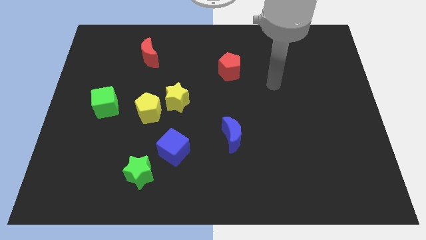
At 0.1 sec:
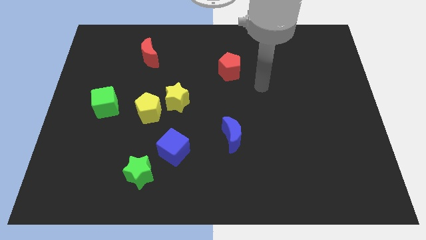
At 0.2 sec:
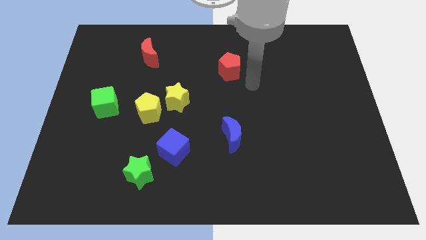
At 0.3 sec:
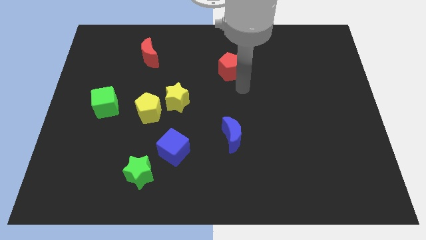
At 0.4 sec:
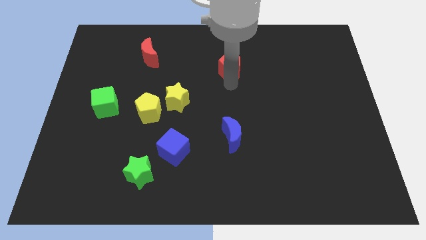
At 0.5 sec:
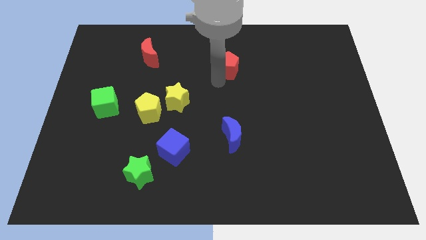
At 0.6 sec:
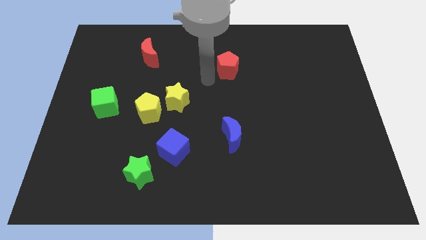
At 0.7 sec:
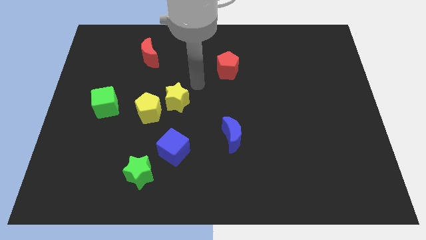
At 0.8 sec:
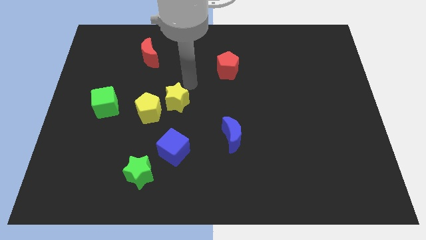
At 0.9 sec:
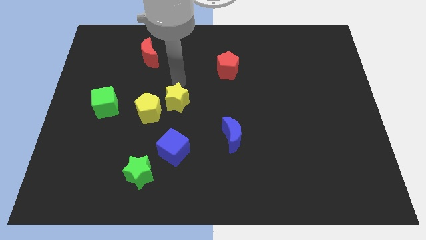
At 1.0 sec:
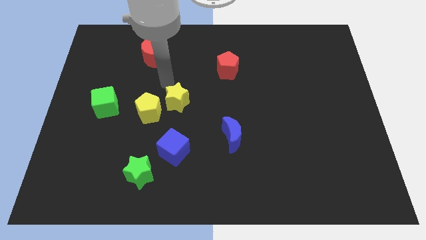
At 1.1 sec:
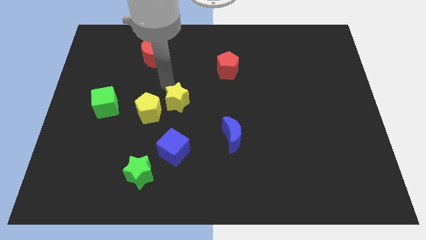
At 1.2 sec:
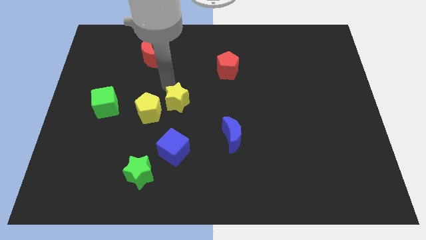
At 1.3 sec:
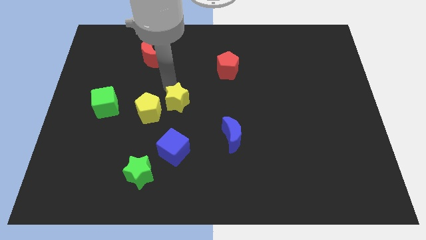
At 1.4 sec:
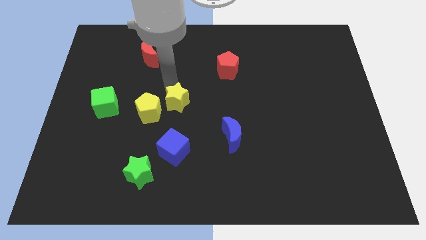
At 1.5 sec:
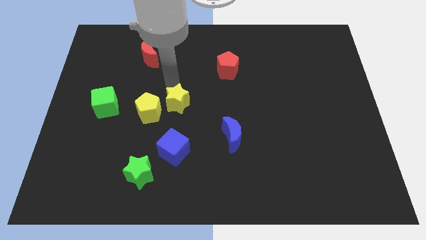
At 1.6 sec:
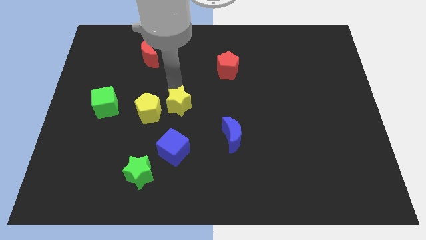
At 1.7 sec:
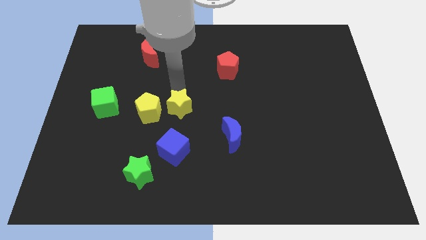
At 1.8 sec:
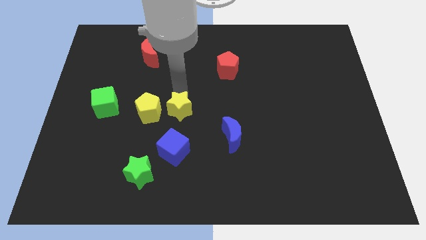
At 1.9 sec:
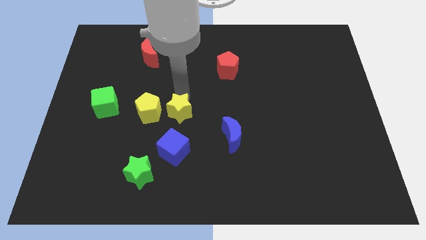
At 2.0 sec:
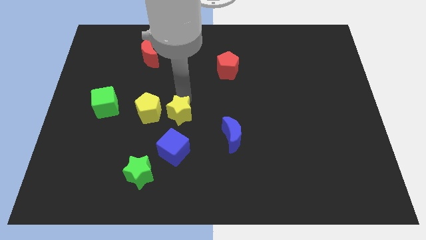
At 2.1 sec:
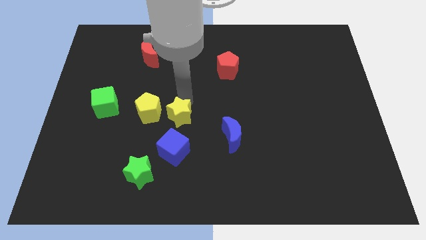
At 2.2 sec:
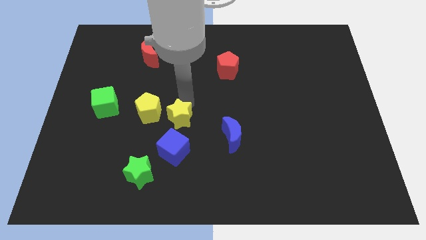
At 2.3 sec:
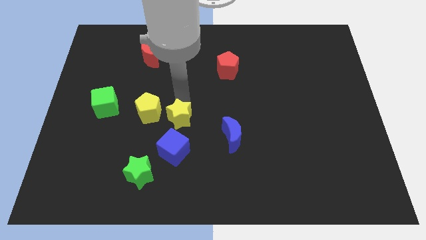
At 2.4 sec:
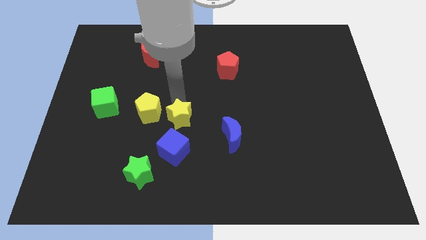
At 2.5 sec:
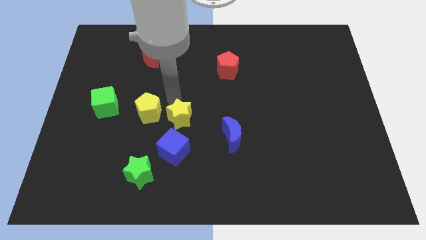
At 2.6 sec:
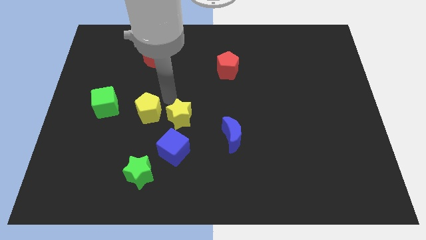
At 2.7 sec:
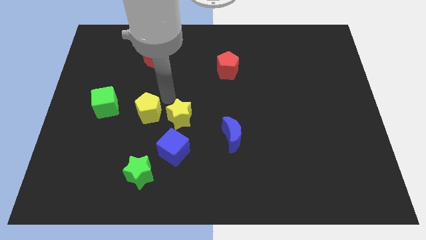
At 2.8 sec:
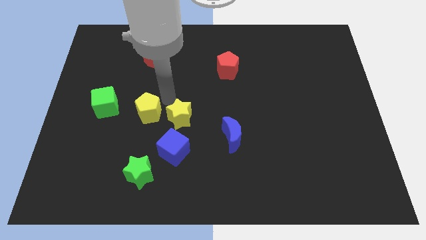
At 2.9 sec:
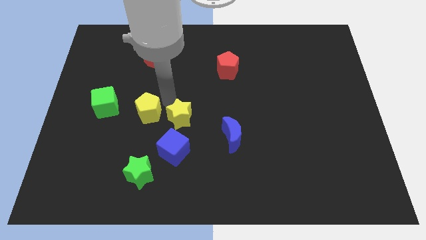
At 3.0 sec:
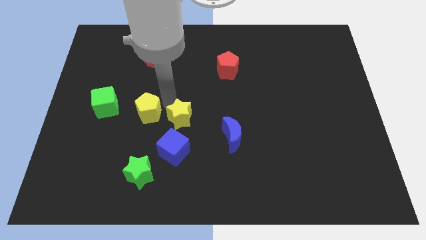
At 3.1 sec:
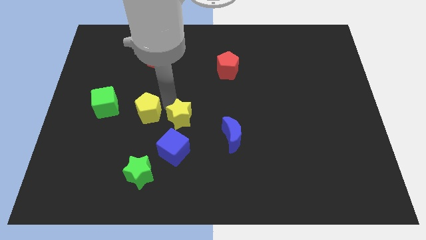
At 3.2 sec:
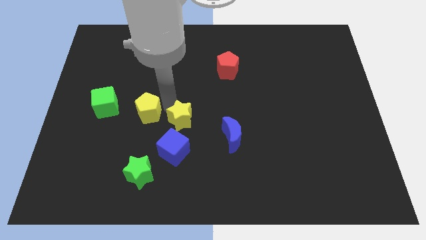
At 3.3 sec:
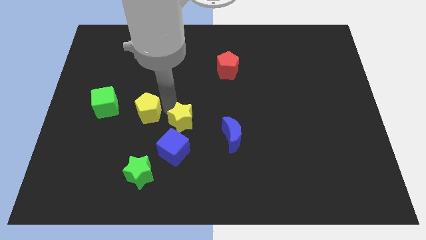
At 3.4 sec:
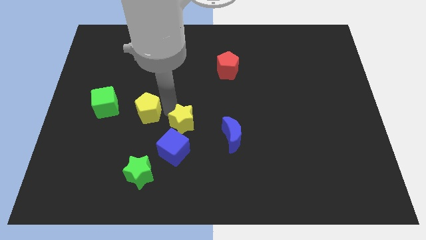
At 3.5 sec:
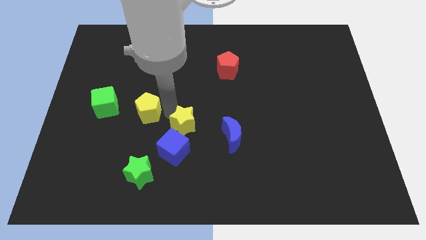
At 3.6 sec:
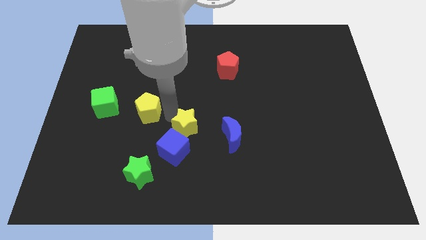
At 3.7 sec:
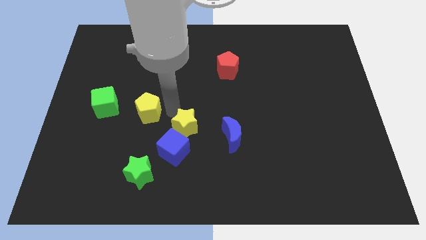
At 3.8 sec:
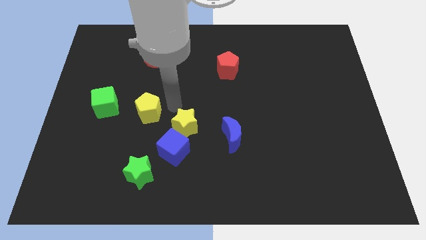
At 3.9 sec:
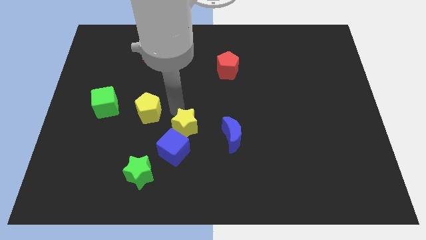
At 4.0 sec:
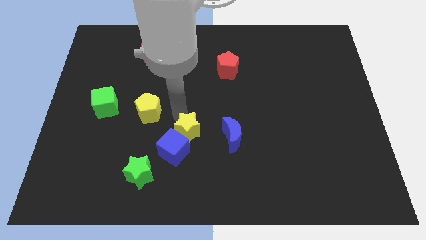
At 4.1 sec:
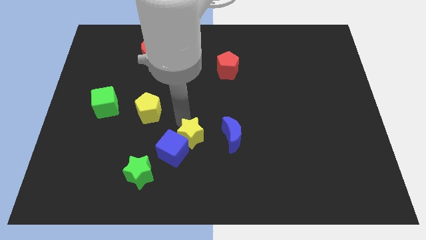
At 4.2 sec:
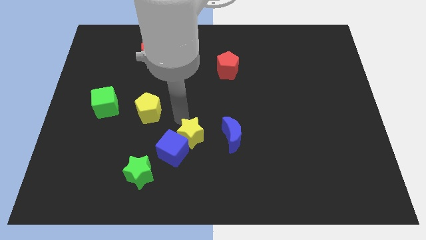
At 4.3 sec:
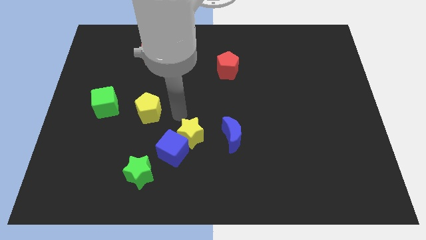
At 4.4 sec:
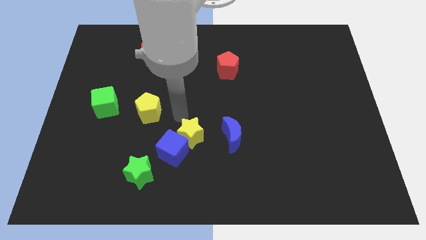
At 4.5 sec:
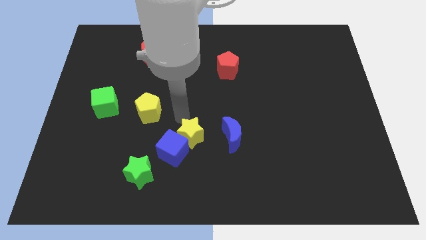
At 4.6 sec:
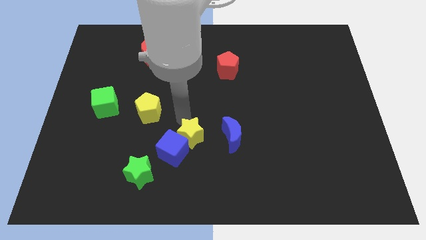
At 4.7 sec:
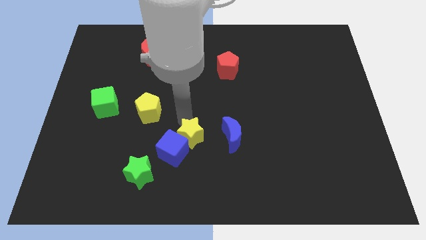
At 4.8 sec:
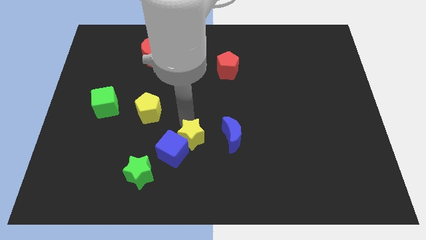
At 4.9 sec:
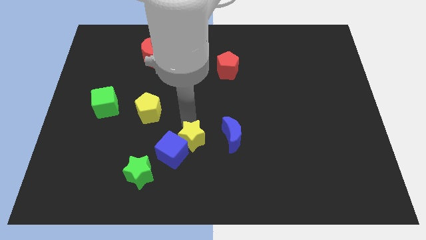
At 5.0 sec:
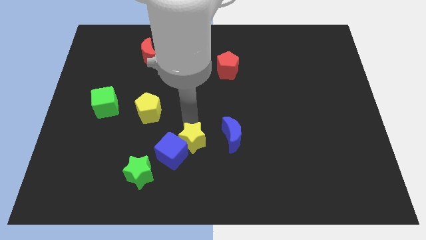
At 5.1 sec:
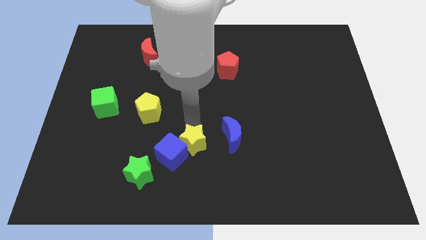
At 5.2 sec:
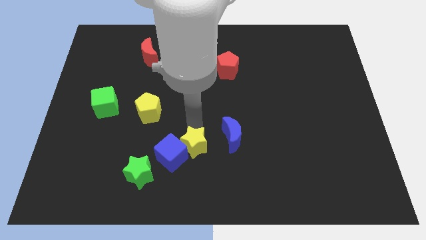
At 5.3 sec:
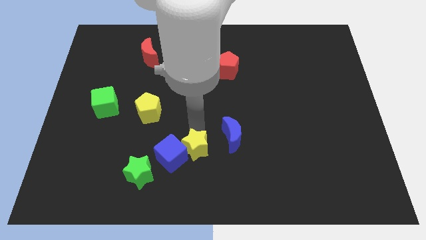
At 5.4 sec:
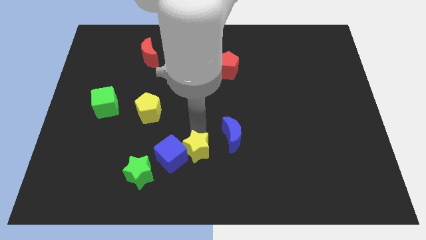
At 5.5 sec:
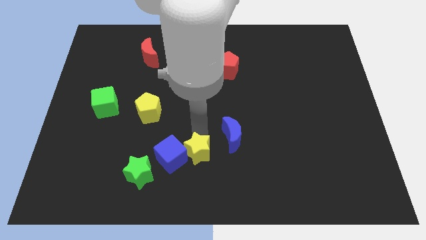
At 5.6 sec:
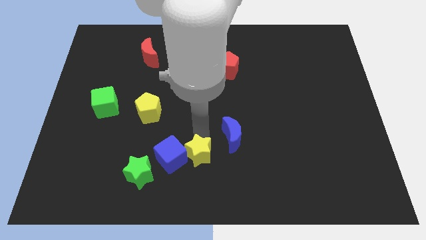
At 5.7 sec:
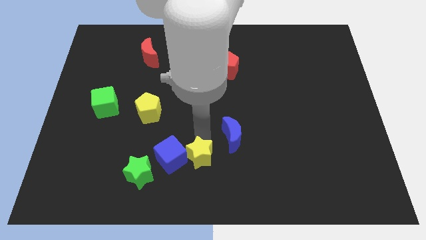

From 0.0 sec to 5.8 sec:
move the yellow star to the bottom

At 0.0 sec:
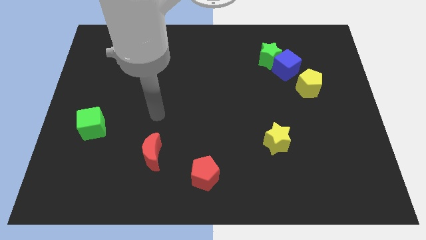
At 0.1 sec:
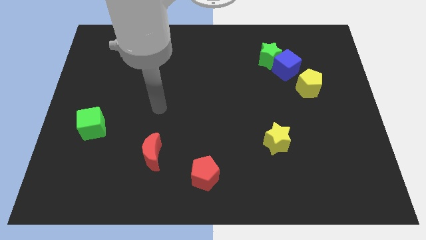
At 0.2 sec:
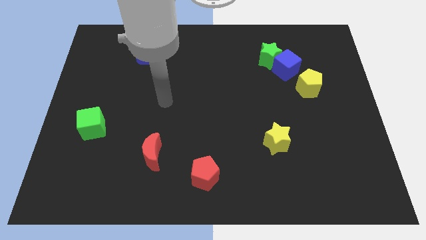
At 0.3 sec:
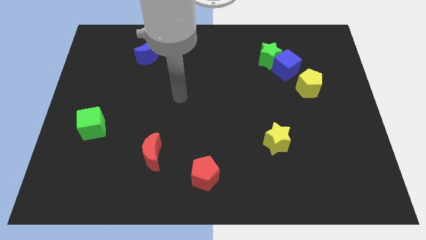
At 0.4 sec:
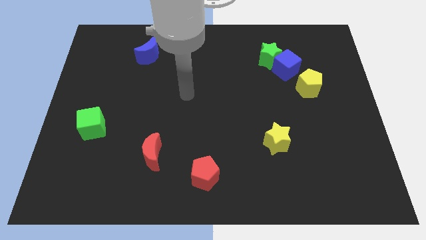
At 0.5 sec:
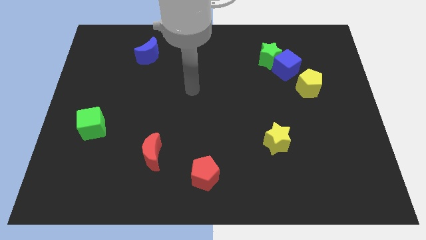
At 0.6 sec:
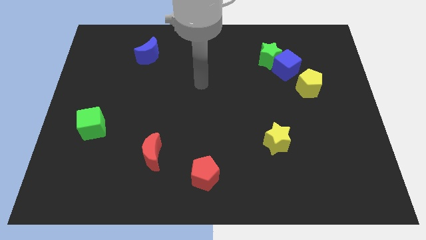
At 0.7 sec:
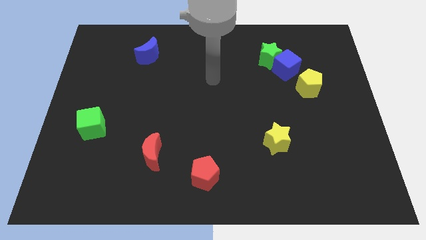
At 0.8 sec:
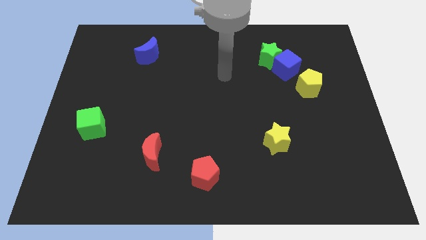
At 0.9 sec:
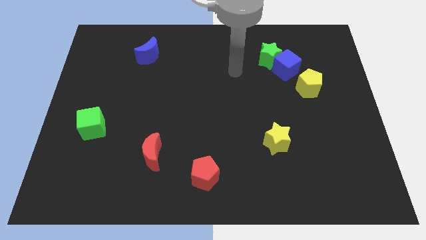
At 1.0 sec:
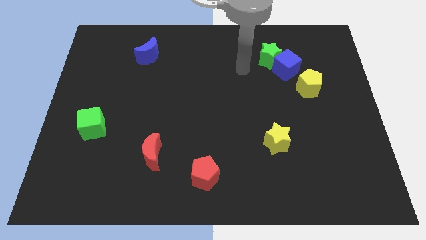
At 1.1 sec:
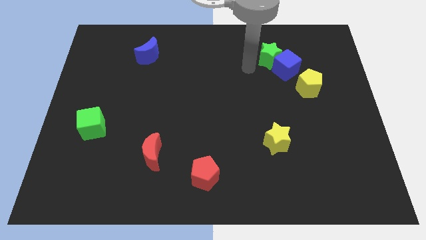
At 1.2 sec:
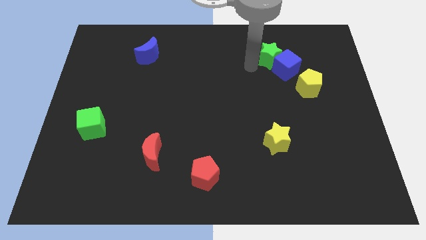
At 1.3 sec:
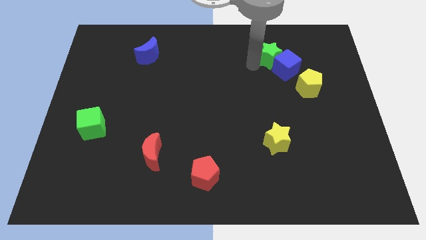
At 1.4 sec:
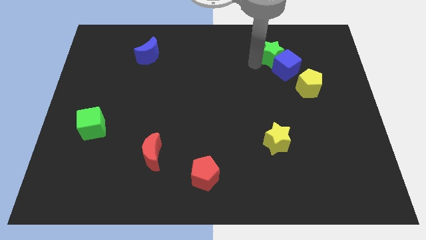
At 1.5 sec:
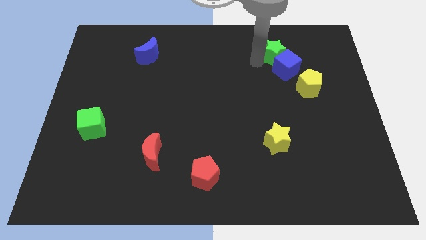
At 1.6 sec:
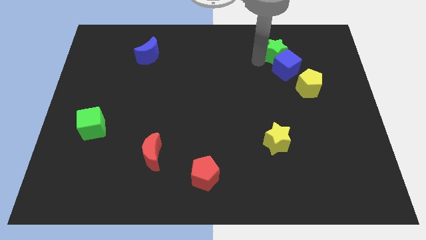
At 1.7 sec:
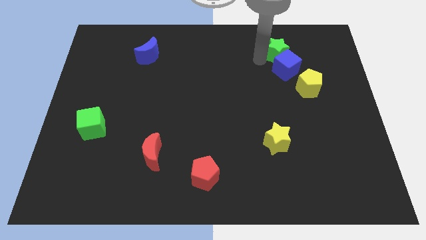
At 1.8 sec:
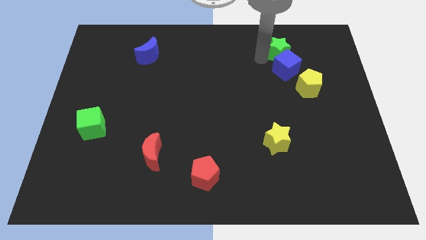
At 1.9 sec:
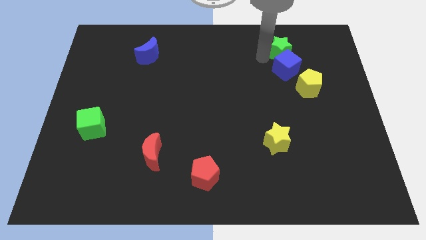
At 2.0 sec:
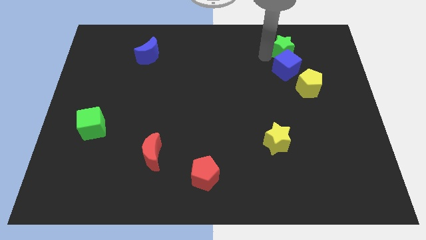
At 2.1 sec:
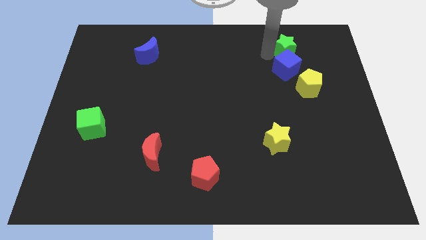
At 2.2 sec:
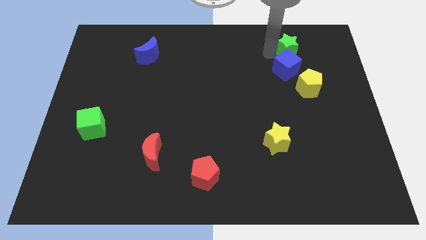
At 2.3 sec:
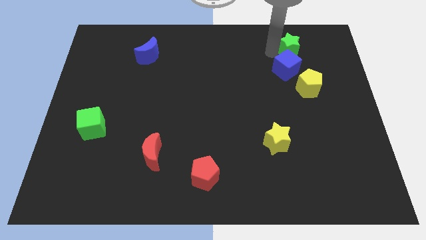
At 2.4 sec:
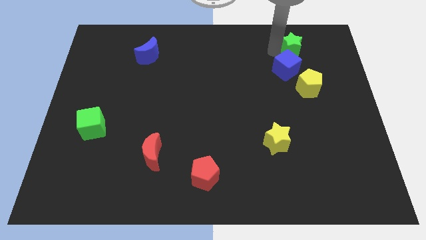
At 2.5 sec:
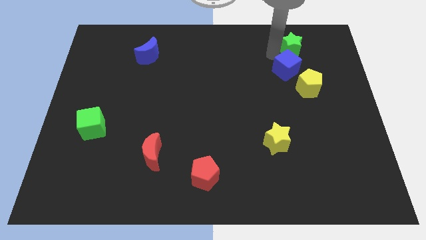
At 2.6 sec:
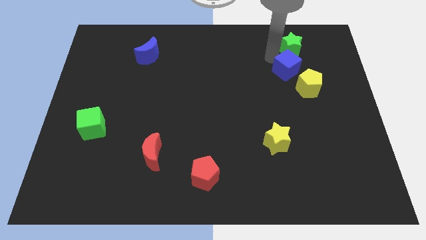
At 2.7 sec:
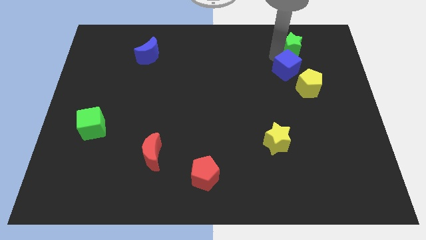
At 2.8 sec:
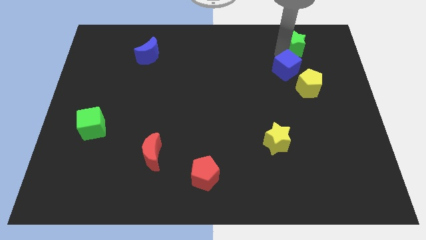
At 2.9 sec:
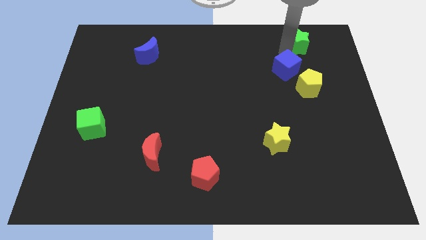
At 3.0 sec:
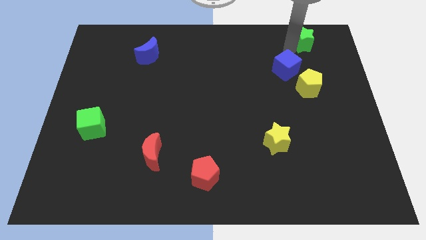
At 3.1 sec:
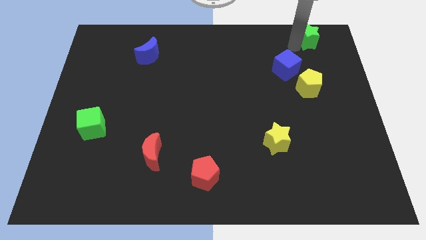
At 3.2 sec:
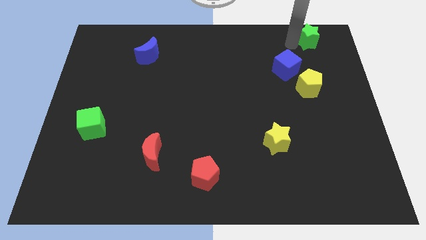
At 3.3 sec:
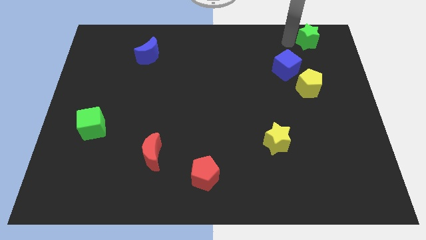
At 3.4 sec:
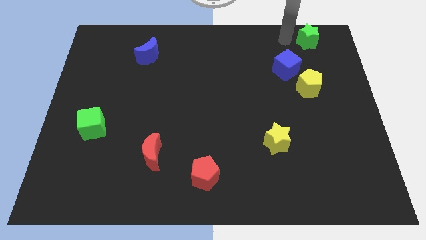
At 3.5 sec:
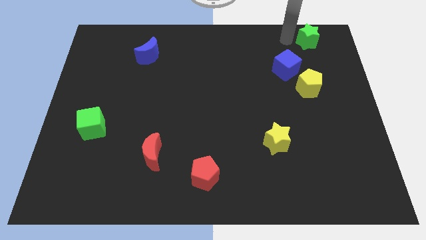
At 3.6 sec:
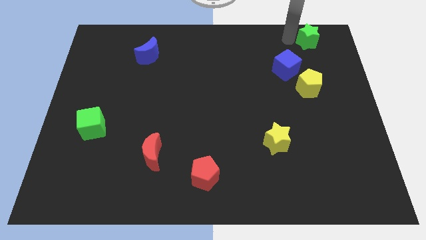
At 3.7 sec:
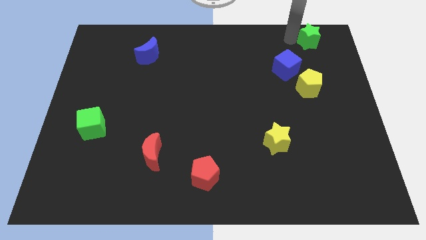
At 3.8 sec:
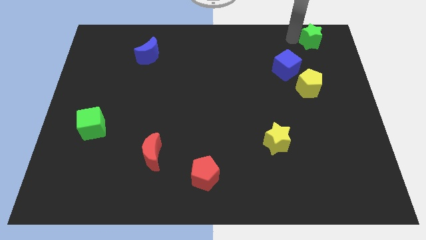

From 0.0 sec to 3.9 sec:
slide the green star to the top right corner
